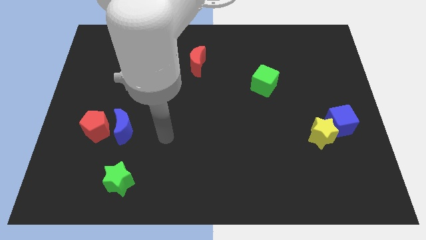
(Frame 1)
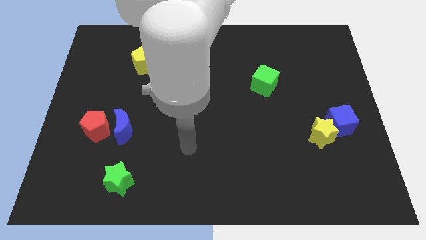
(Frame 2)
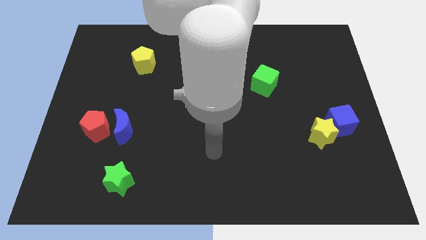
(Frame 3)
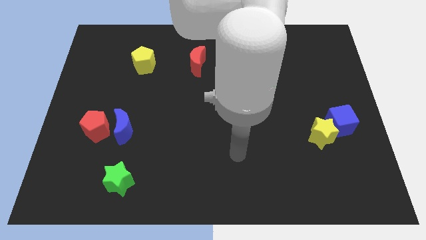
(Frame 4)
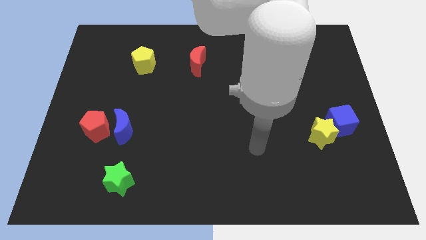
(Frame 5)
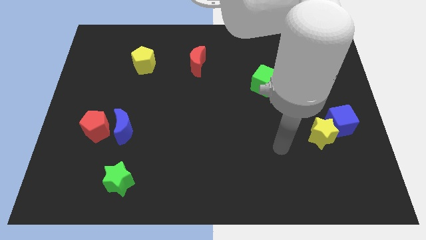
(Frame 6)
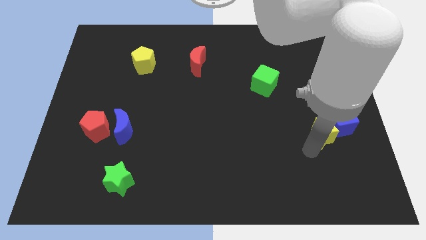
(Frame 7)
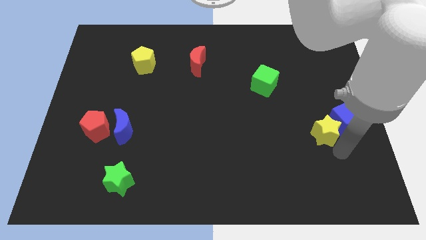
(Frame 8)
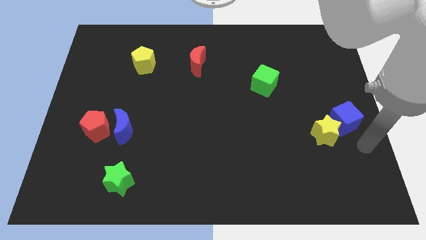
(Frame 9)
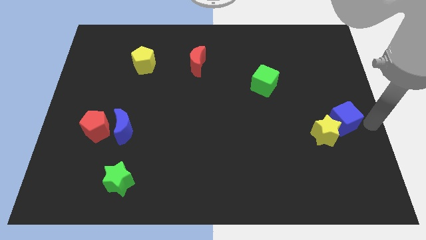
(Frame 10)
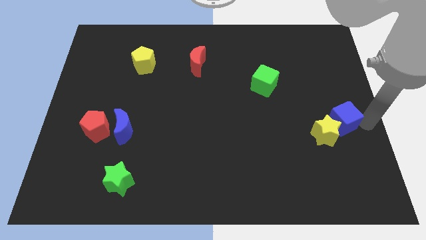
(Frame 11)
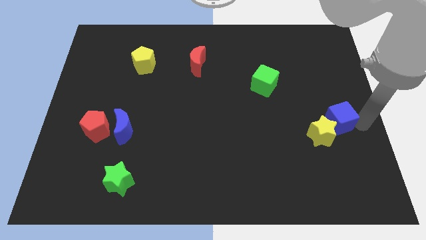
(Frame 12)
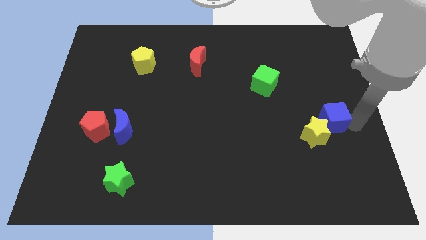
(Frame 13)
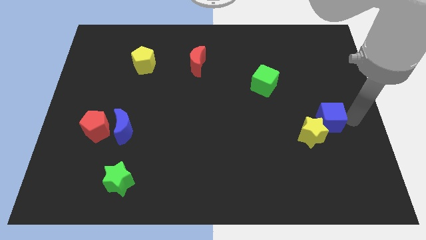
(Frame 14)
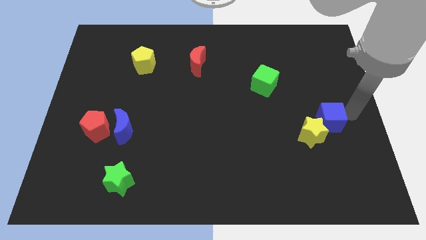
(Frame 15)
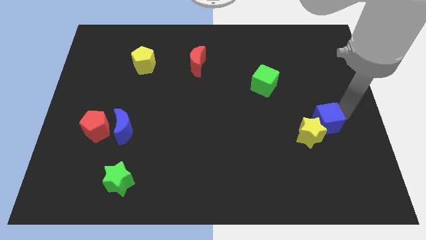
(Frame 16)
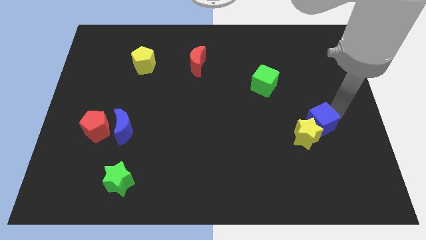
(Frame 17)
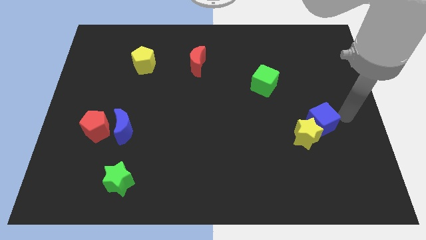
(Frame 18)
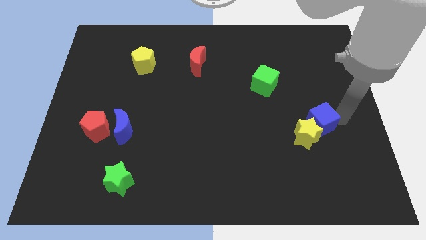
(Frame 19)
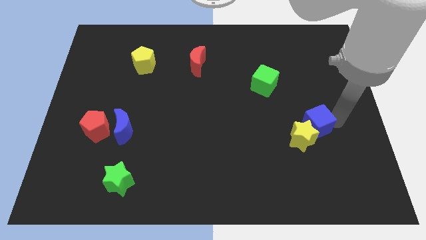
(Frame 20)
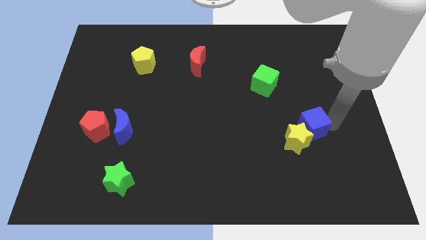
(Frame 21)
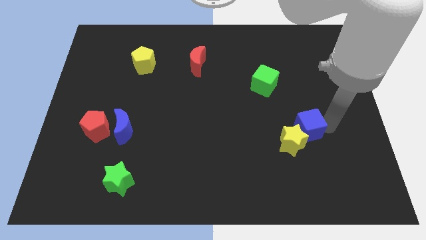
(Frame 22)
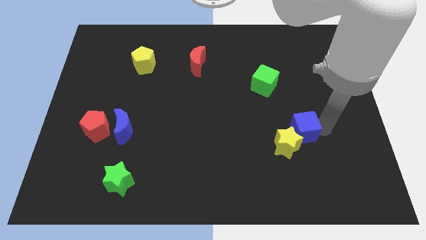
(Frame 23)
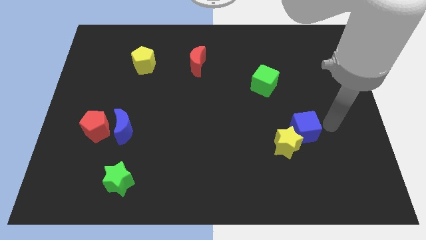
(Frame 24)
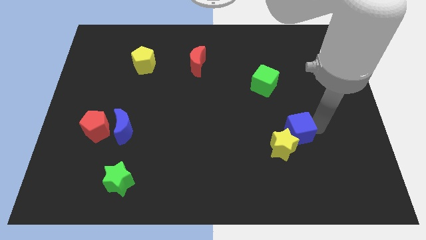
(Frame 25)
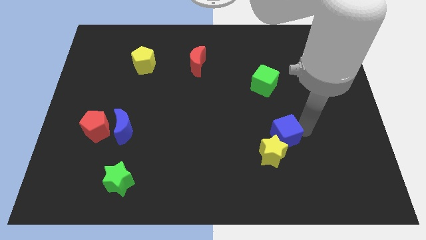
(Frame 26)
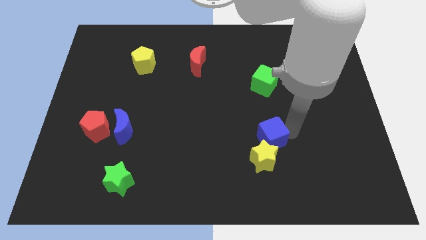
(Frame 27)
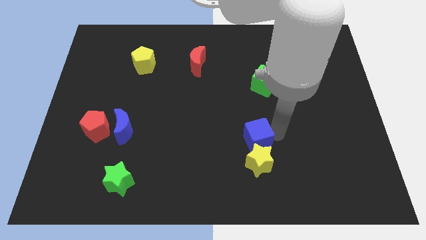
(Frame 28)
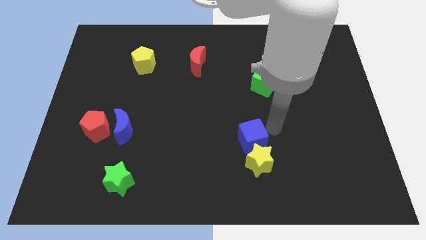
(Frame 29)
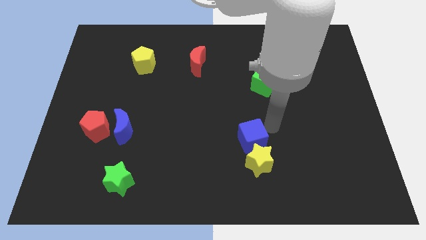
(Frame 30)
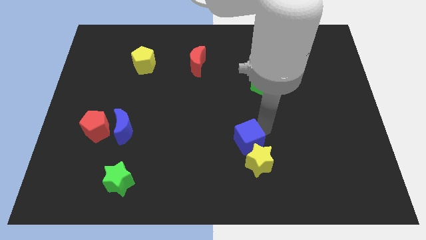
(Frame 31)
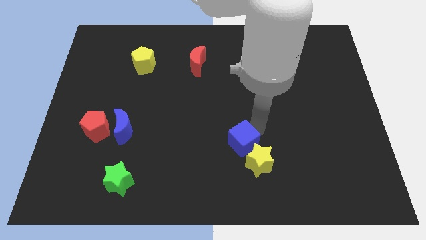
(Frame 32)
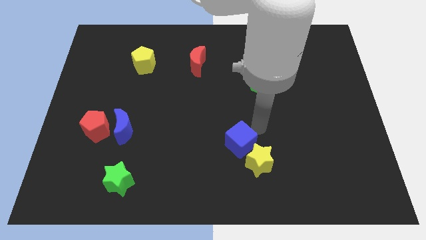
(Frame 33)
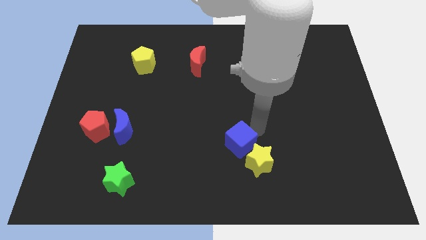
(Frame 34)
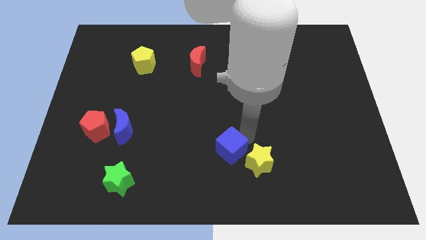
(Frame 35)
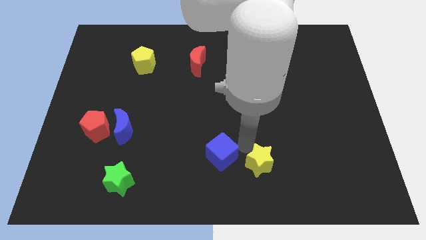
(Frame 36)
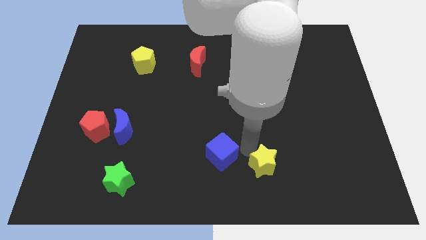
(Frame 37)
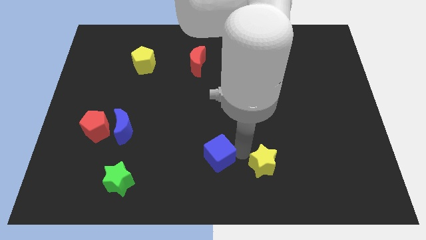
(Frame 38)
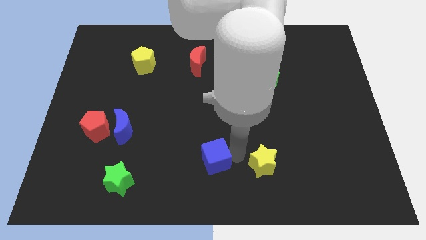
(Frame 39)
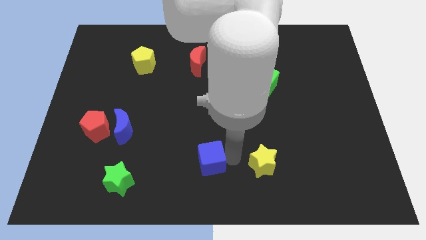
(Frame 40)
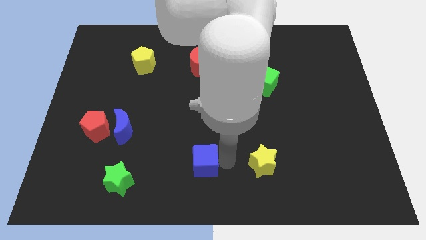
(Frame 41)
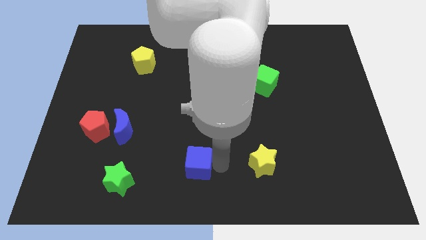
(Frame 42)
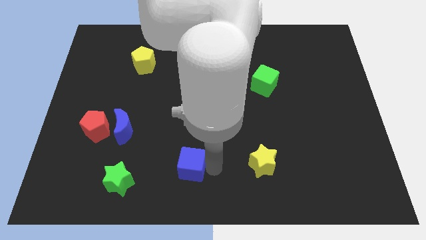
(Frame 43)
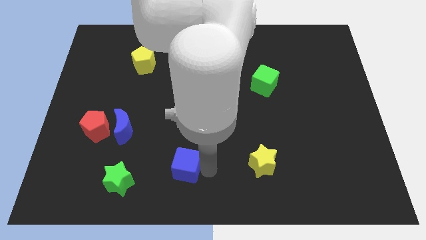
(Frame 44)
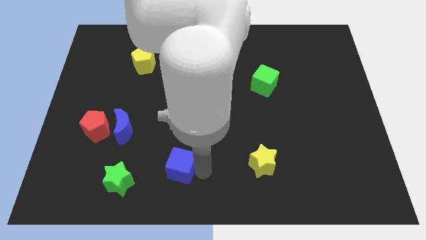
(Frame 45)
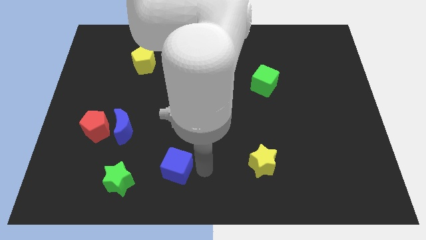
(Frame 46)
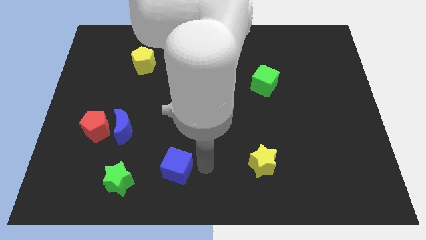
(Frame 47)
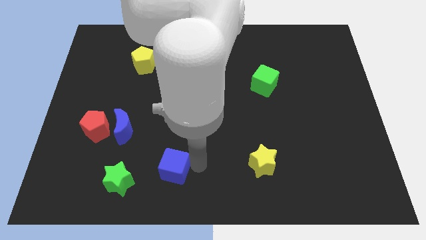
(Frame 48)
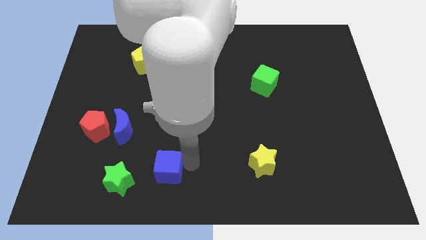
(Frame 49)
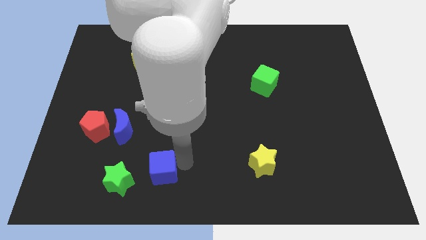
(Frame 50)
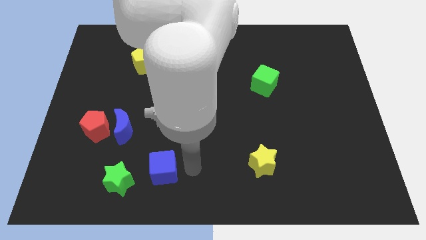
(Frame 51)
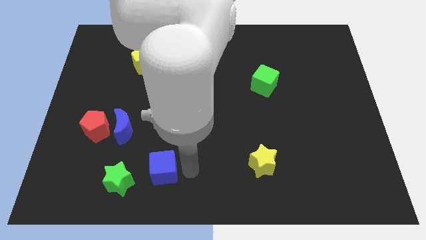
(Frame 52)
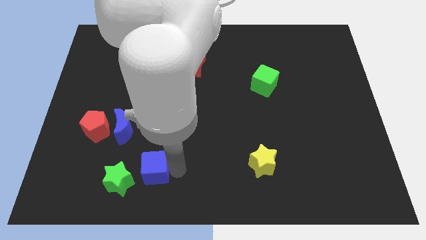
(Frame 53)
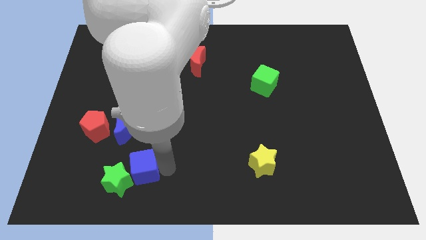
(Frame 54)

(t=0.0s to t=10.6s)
slide the blue cube close to the green star

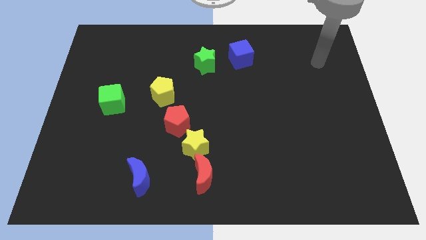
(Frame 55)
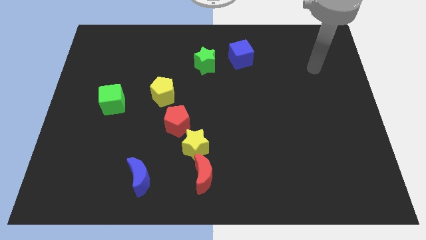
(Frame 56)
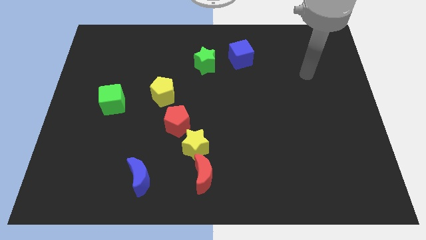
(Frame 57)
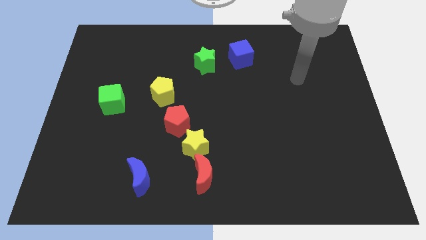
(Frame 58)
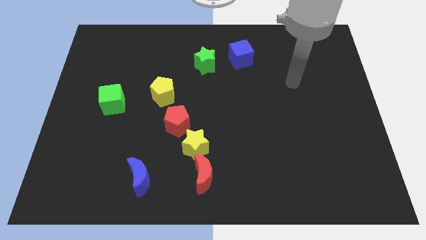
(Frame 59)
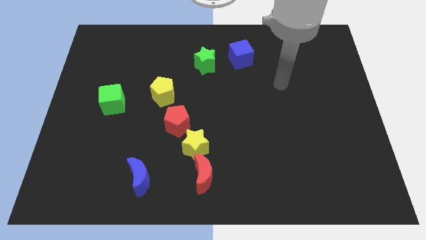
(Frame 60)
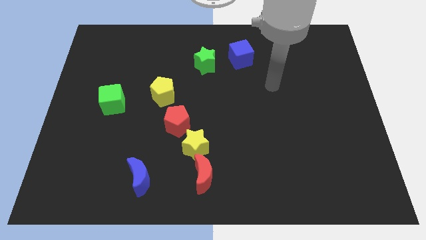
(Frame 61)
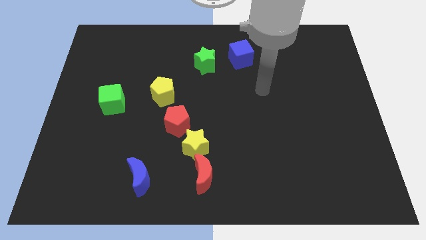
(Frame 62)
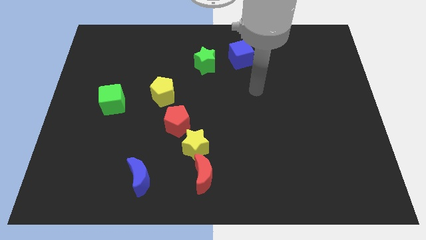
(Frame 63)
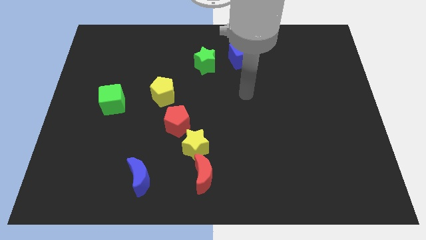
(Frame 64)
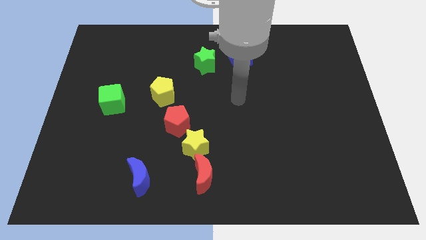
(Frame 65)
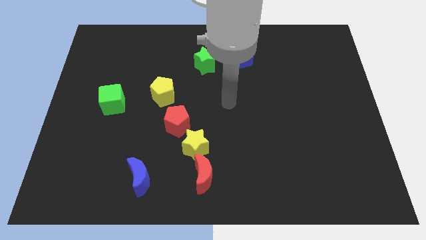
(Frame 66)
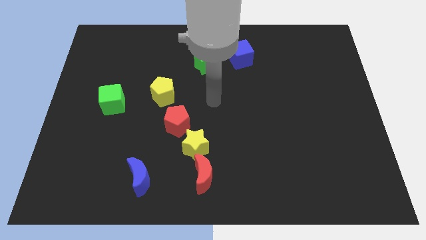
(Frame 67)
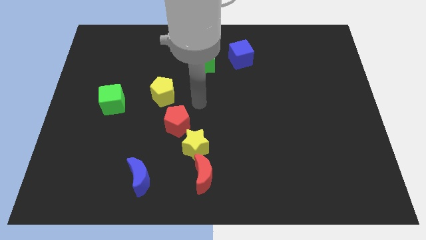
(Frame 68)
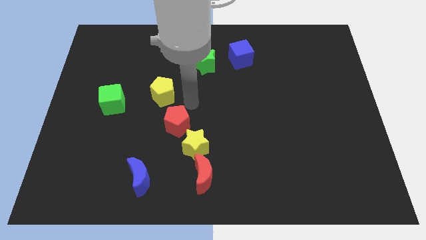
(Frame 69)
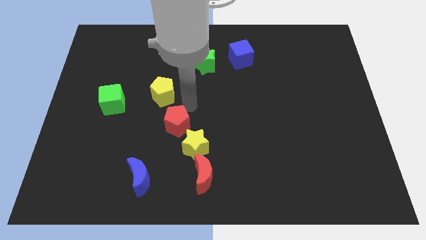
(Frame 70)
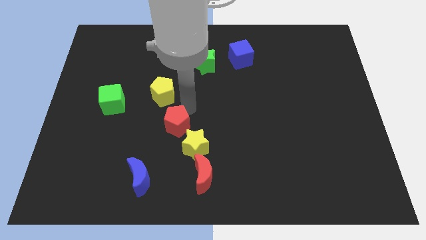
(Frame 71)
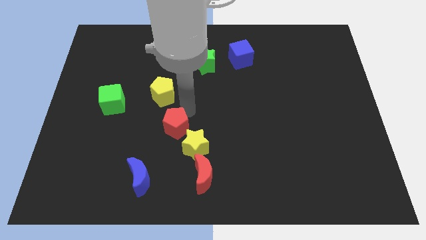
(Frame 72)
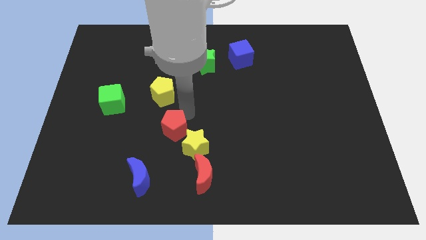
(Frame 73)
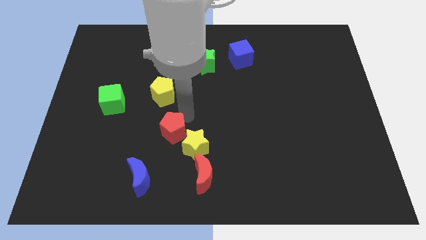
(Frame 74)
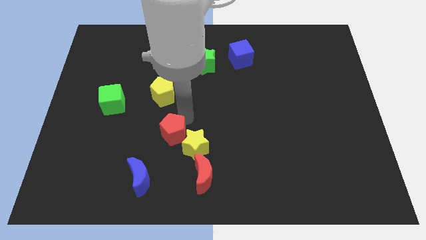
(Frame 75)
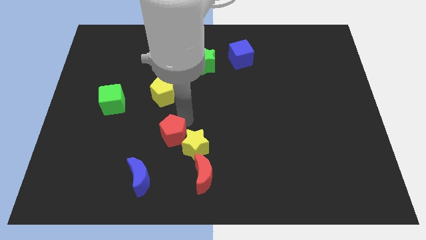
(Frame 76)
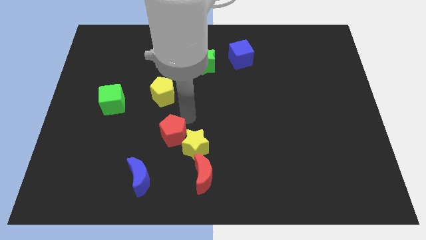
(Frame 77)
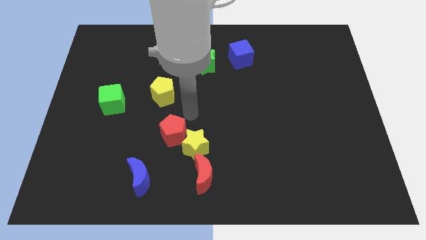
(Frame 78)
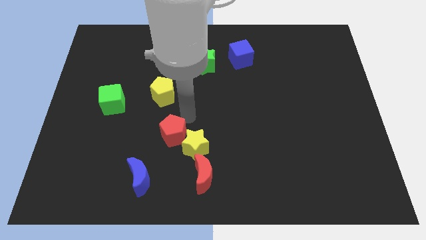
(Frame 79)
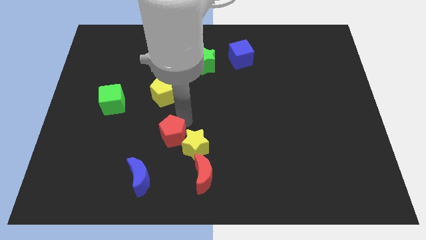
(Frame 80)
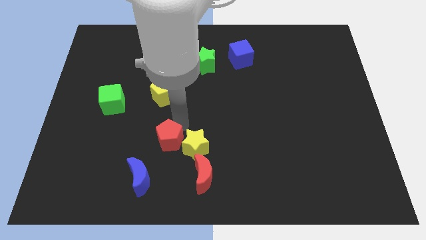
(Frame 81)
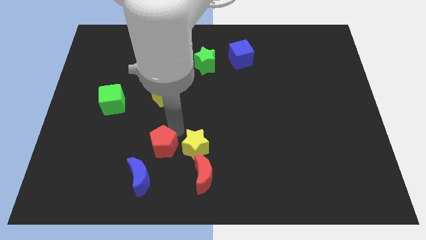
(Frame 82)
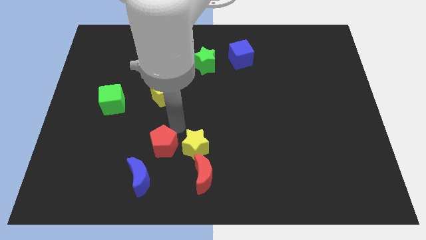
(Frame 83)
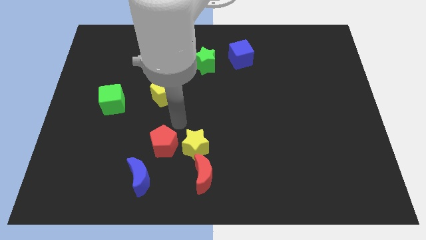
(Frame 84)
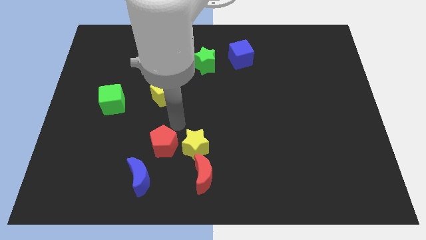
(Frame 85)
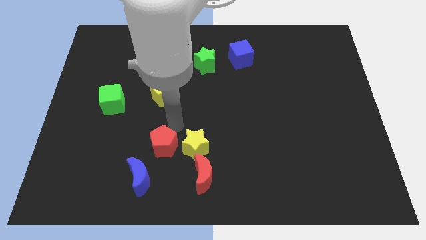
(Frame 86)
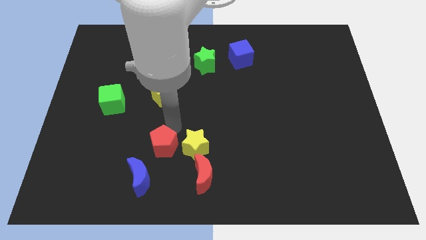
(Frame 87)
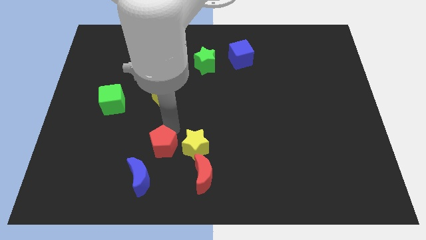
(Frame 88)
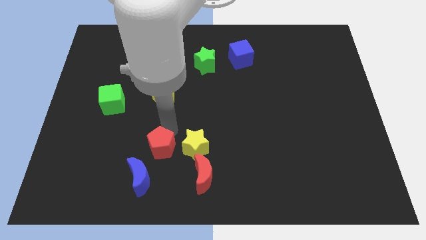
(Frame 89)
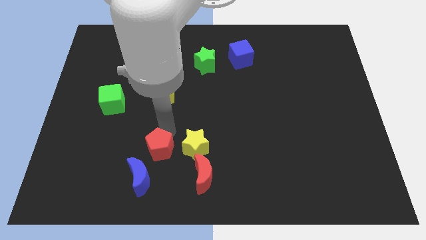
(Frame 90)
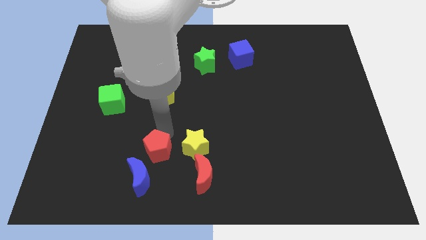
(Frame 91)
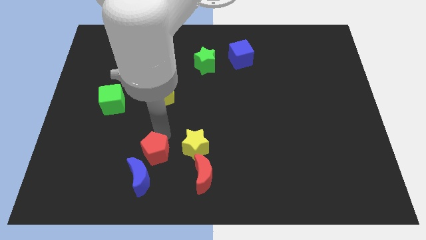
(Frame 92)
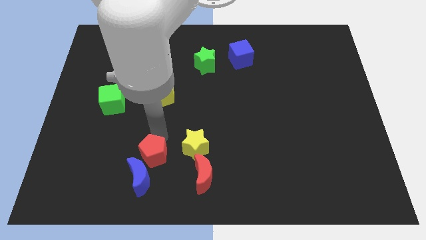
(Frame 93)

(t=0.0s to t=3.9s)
slide the red pentagon to the blue moon
